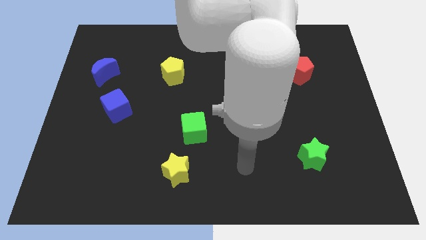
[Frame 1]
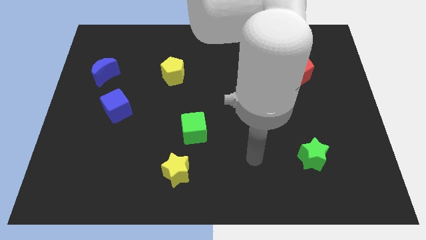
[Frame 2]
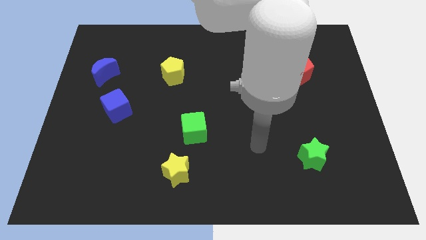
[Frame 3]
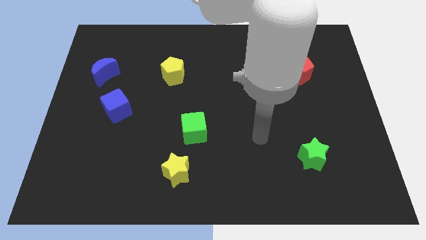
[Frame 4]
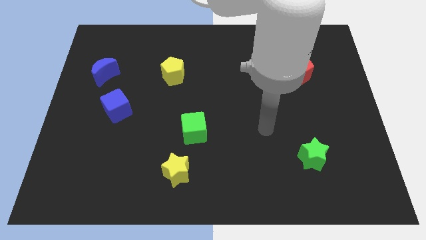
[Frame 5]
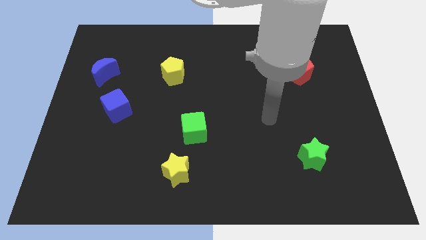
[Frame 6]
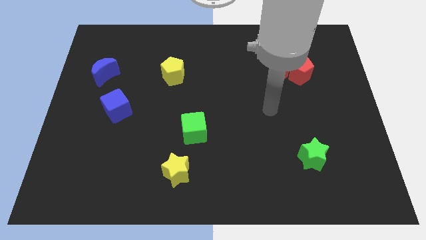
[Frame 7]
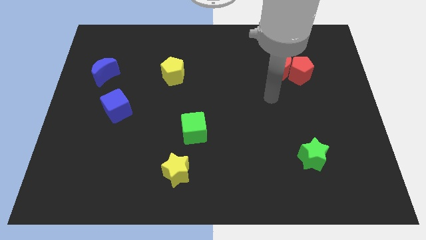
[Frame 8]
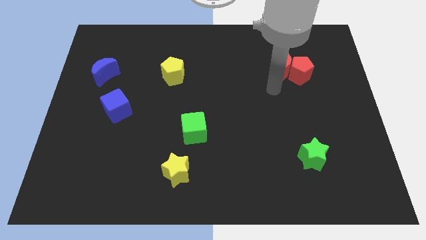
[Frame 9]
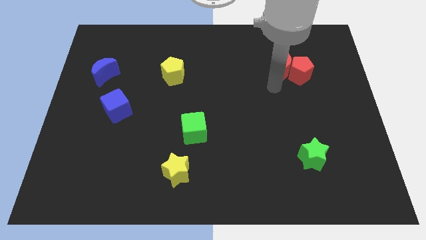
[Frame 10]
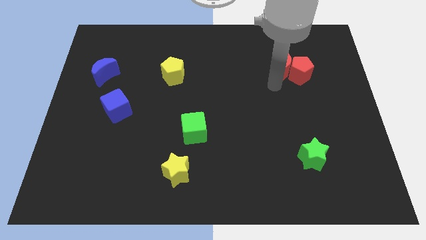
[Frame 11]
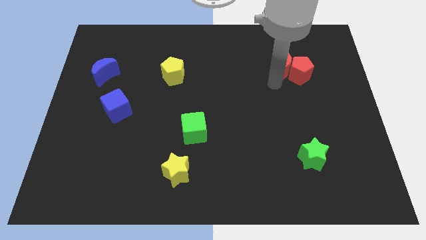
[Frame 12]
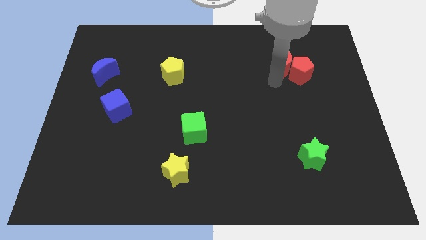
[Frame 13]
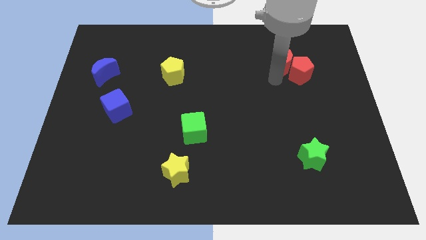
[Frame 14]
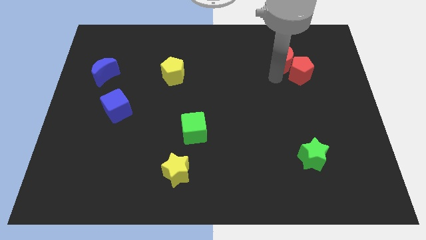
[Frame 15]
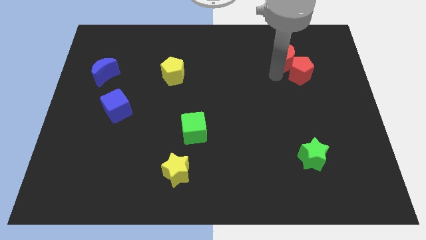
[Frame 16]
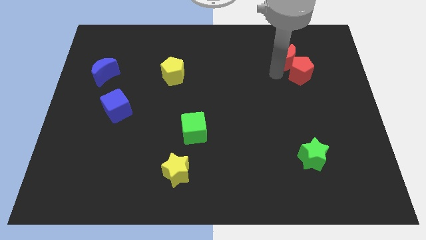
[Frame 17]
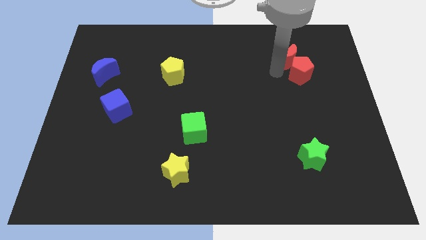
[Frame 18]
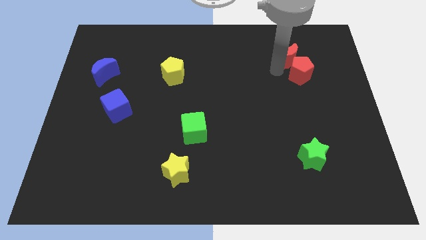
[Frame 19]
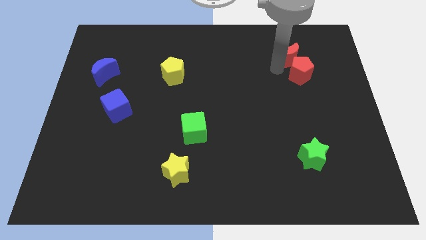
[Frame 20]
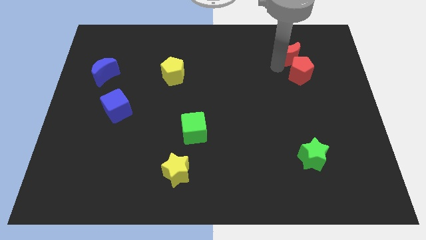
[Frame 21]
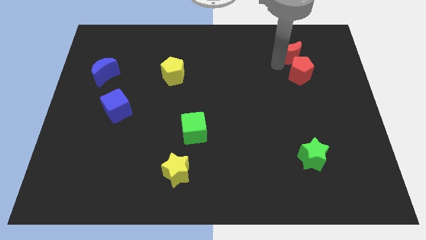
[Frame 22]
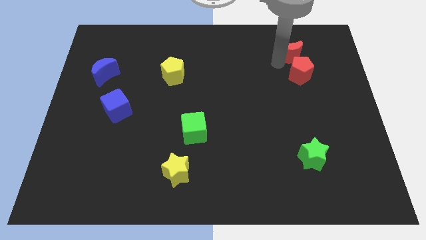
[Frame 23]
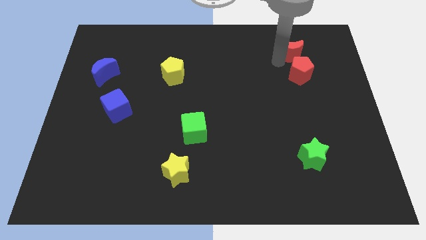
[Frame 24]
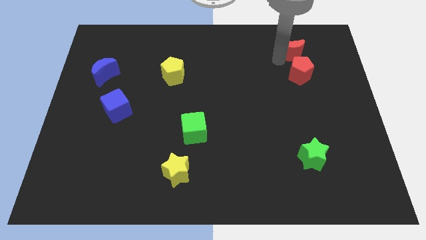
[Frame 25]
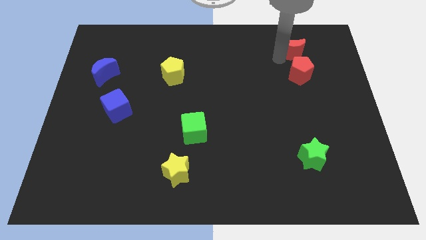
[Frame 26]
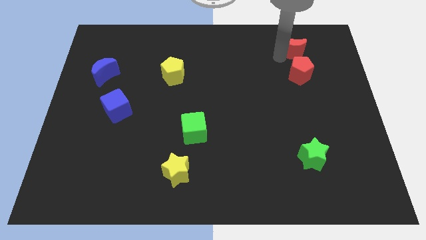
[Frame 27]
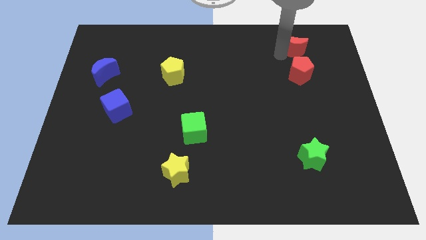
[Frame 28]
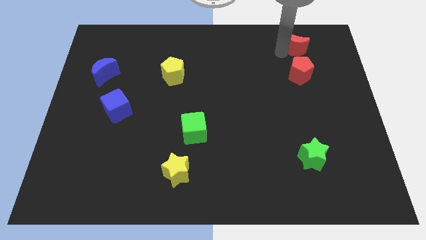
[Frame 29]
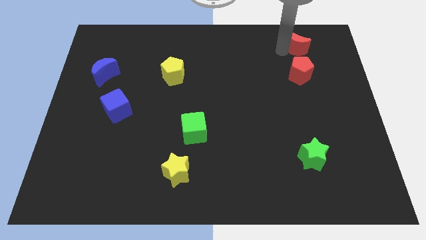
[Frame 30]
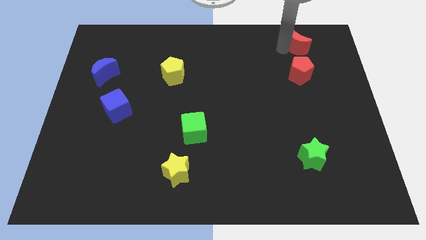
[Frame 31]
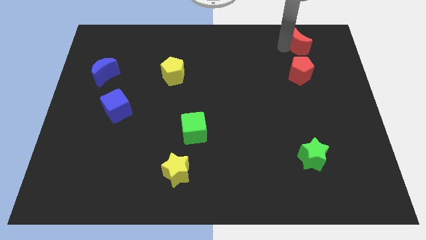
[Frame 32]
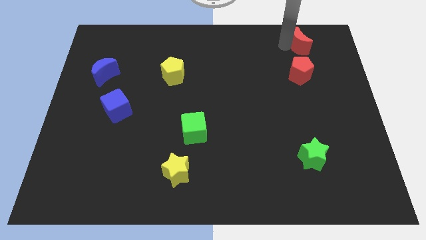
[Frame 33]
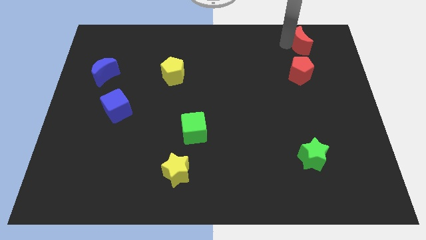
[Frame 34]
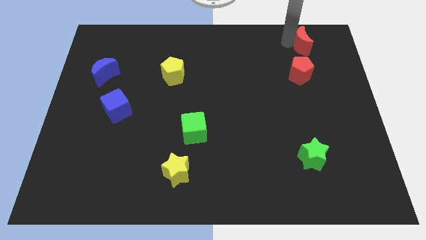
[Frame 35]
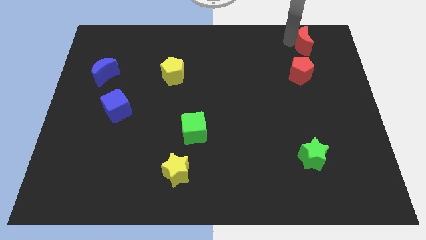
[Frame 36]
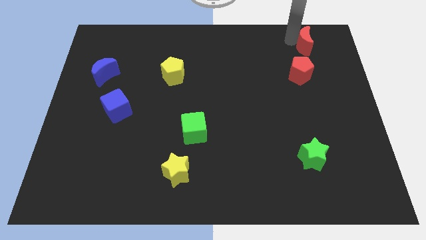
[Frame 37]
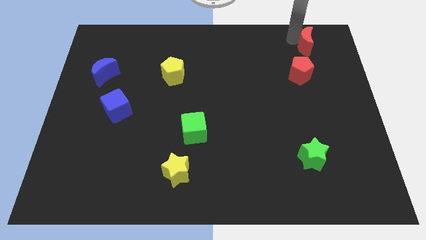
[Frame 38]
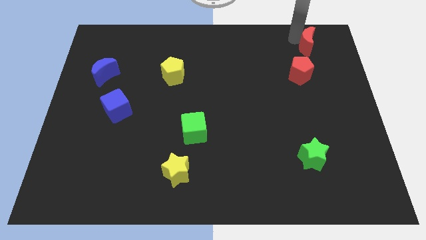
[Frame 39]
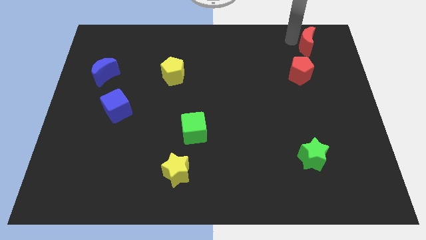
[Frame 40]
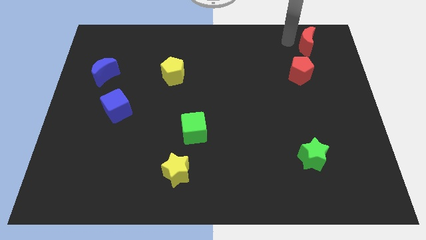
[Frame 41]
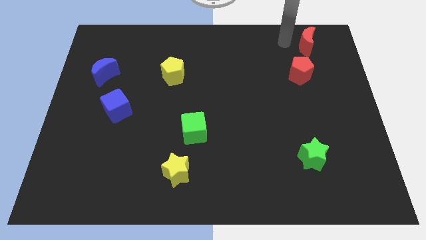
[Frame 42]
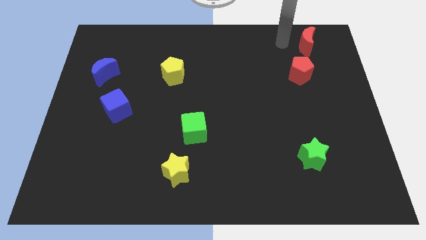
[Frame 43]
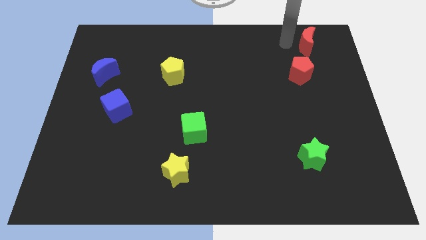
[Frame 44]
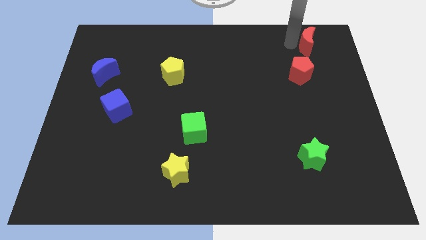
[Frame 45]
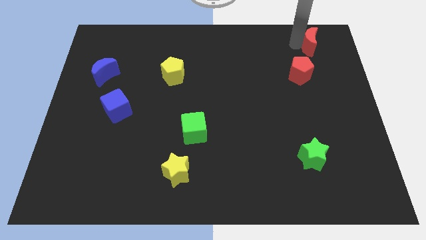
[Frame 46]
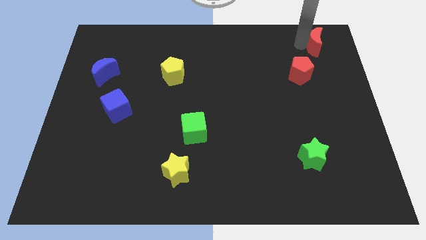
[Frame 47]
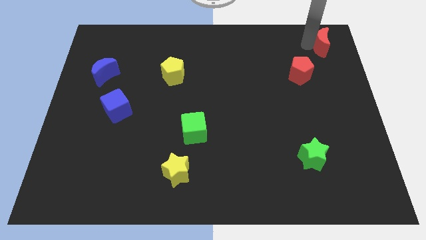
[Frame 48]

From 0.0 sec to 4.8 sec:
push the red moon to the top right of the board

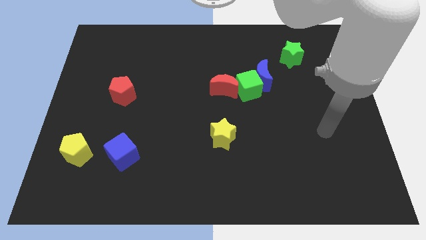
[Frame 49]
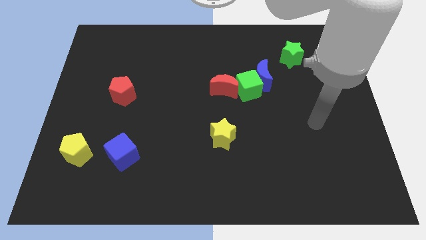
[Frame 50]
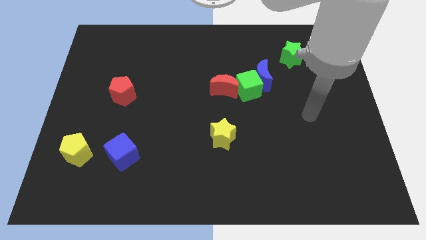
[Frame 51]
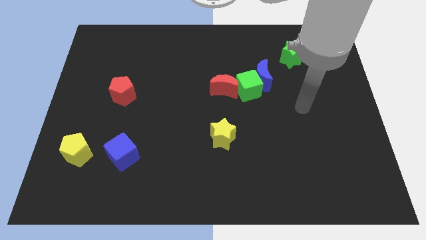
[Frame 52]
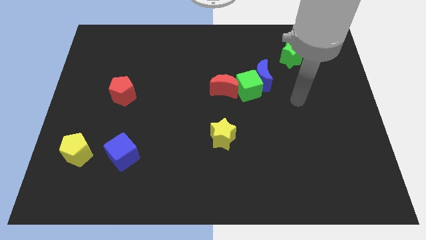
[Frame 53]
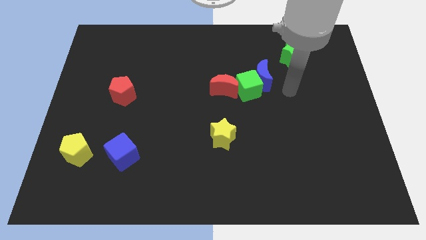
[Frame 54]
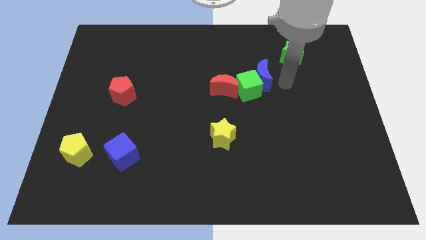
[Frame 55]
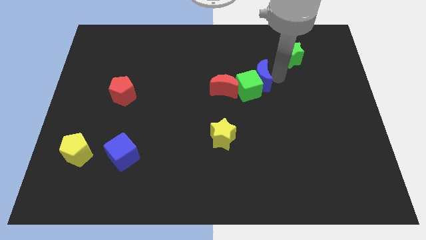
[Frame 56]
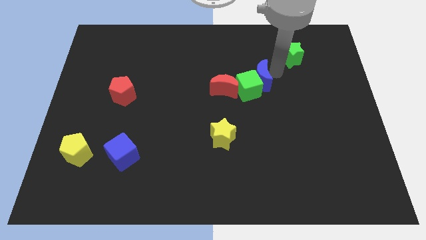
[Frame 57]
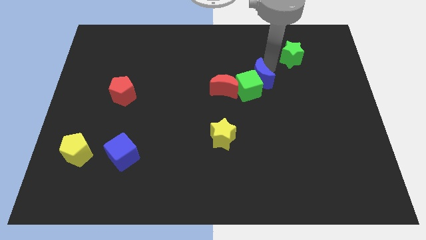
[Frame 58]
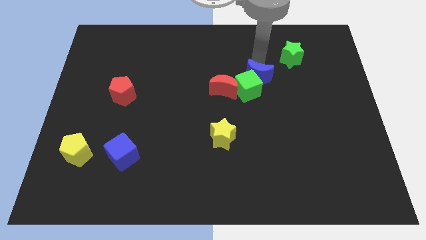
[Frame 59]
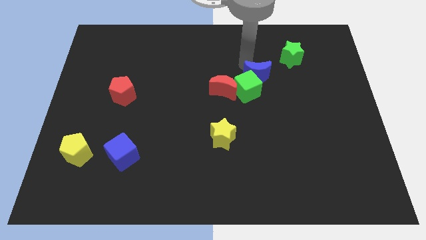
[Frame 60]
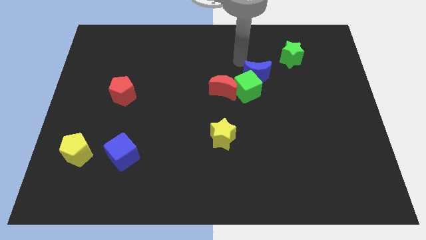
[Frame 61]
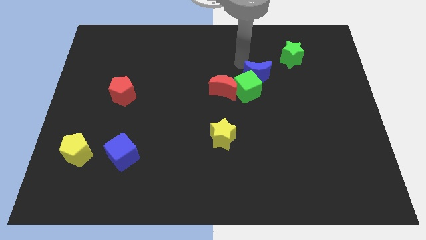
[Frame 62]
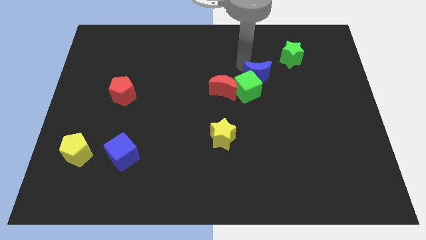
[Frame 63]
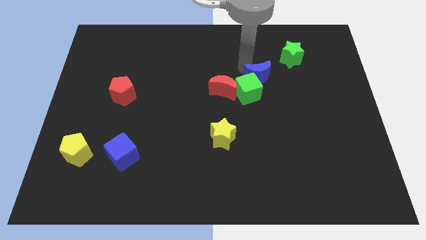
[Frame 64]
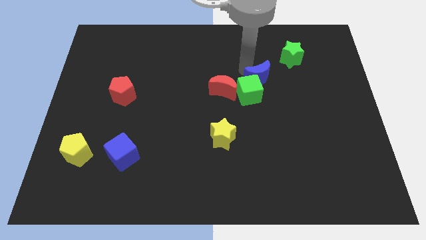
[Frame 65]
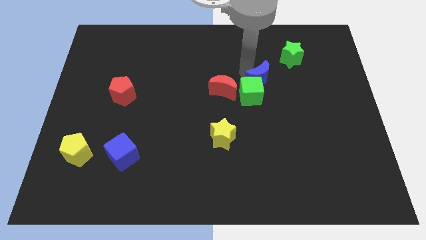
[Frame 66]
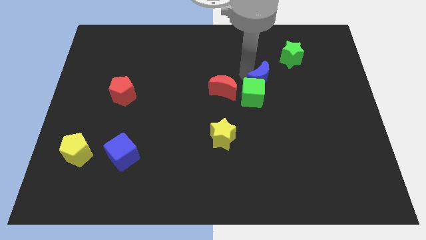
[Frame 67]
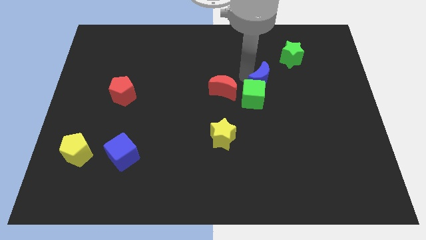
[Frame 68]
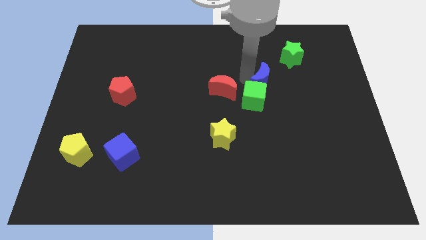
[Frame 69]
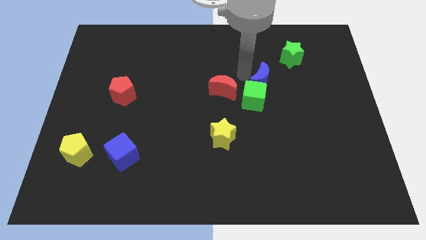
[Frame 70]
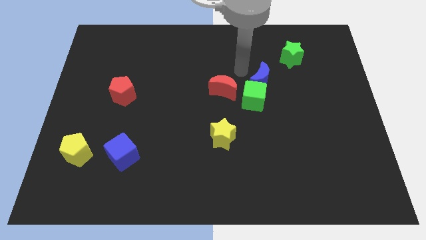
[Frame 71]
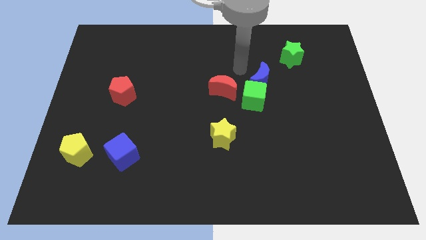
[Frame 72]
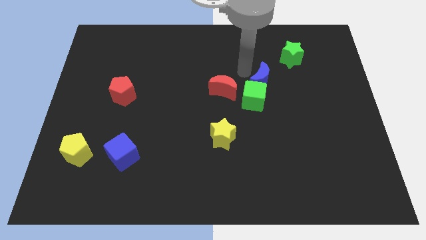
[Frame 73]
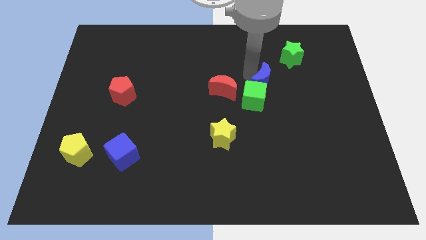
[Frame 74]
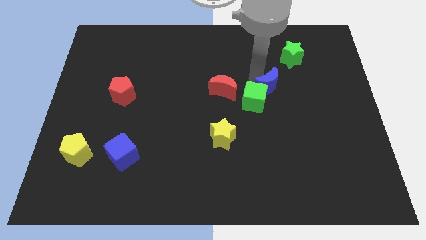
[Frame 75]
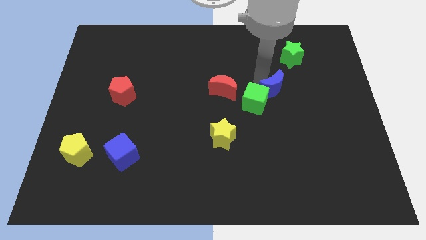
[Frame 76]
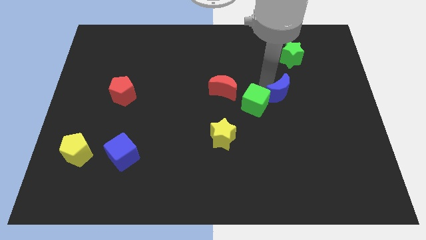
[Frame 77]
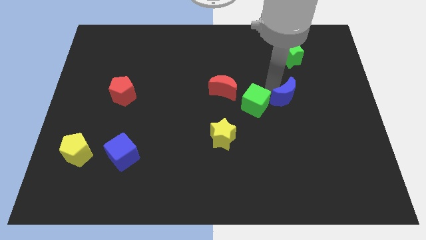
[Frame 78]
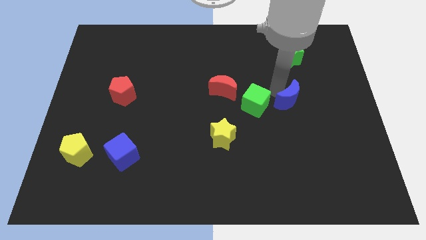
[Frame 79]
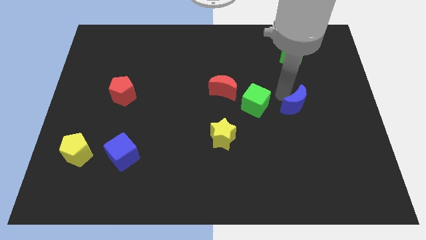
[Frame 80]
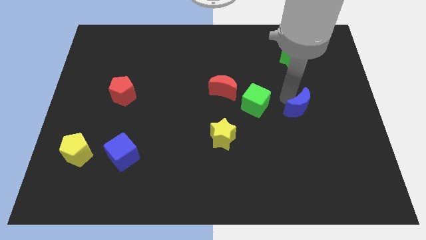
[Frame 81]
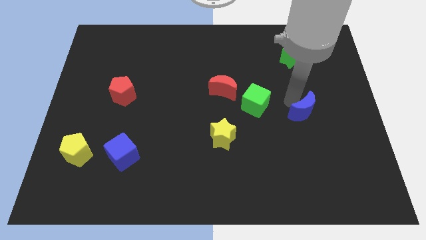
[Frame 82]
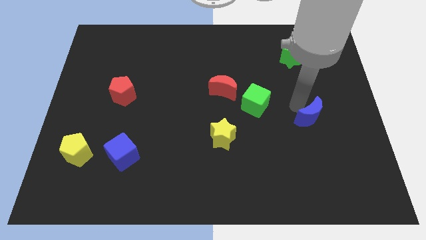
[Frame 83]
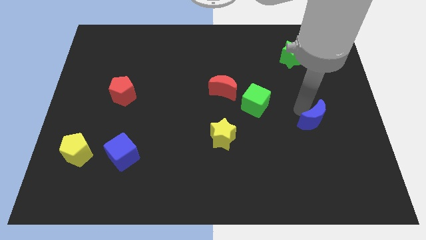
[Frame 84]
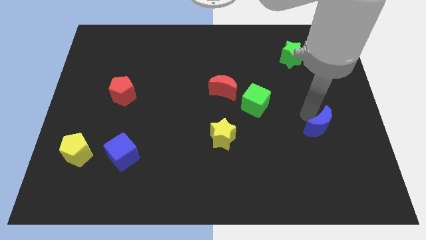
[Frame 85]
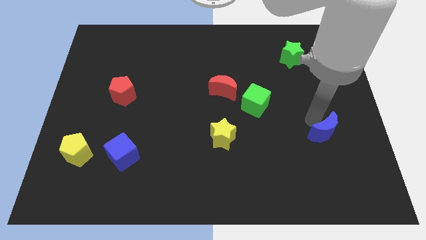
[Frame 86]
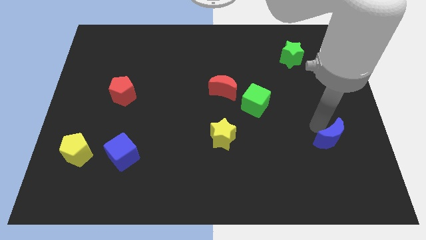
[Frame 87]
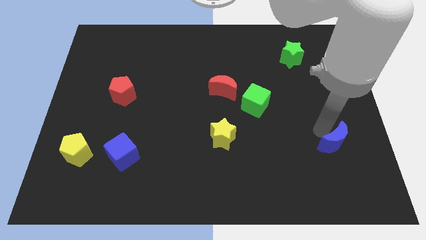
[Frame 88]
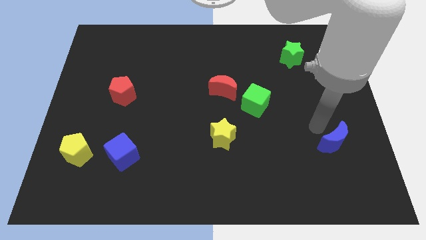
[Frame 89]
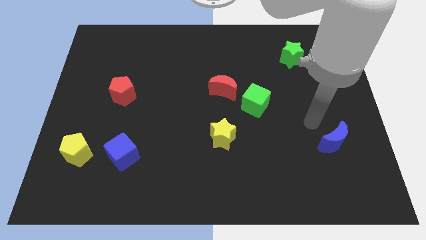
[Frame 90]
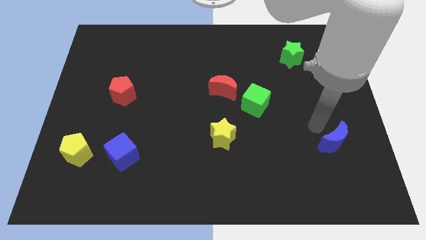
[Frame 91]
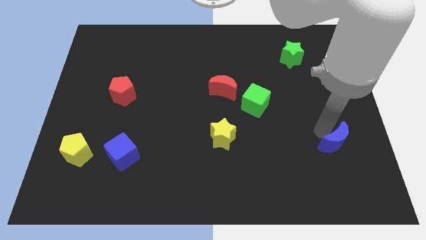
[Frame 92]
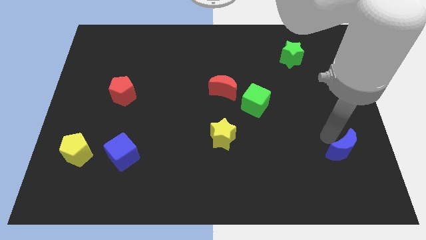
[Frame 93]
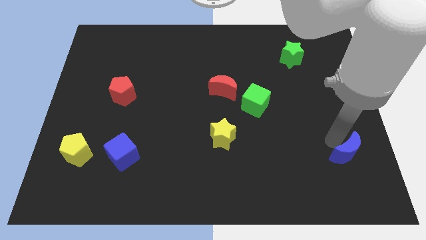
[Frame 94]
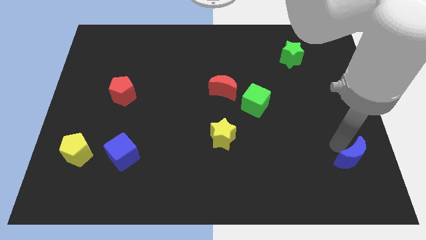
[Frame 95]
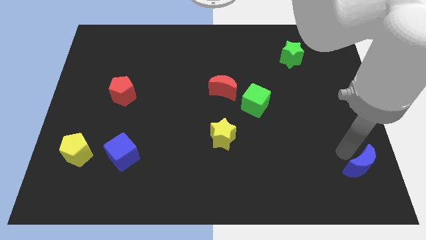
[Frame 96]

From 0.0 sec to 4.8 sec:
push the blue moon to the bottom right of the board
